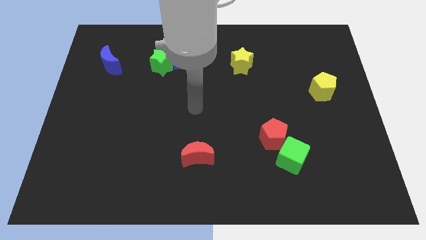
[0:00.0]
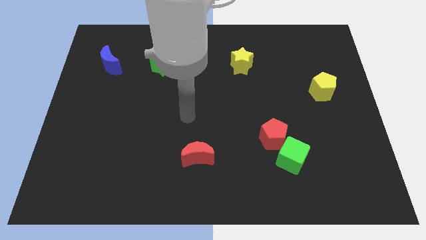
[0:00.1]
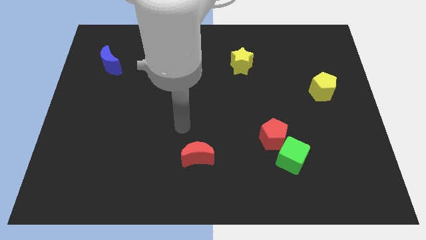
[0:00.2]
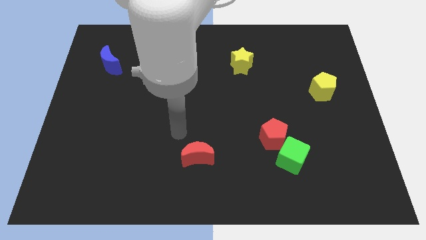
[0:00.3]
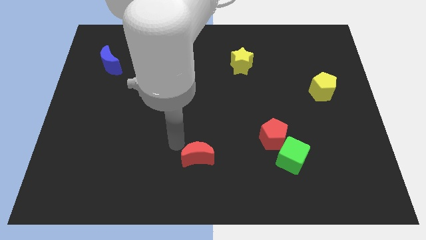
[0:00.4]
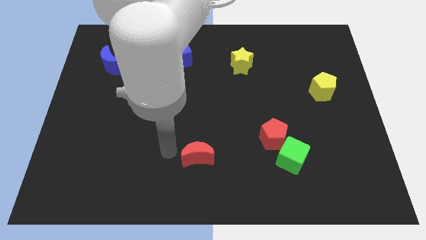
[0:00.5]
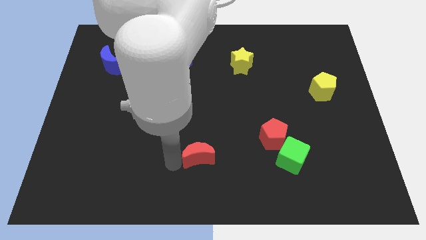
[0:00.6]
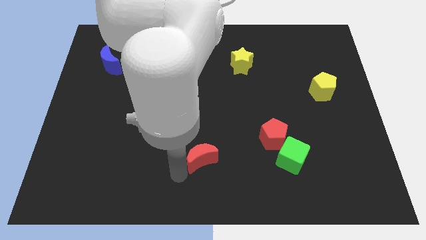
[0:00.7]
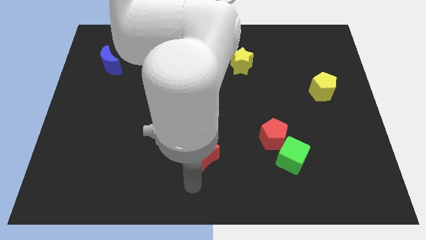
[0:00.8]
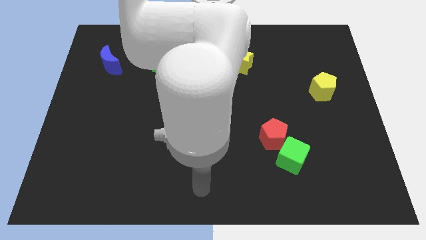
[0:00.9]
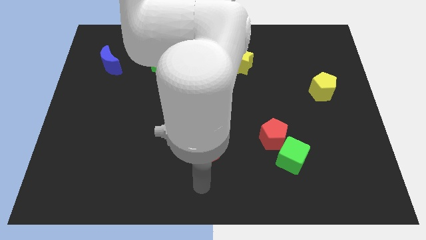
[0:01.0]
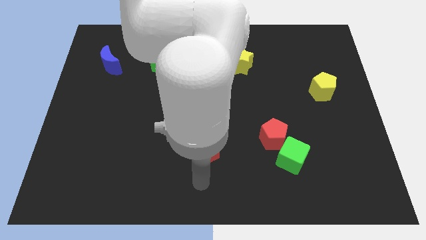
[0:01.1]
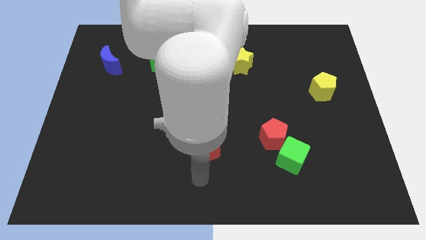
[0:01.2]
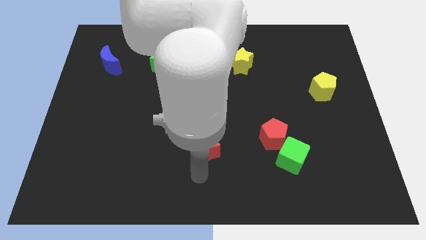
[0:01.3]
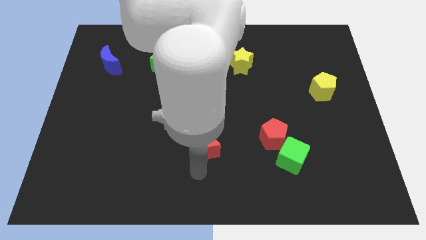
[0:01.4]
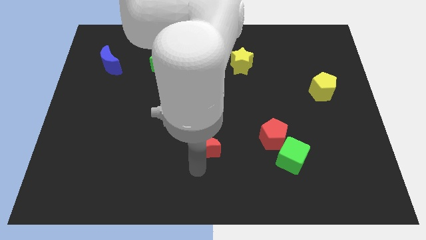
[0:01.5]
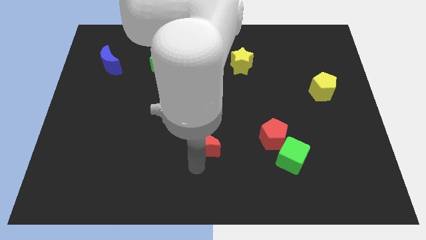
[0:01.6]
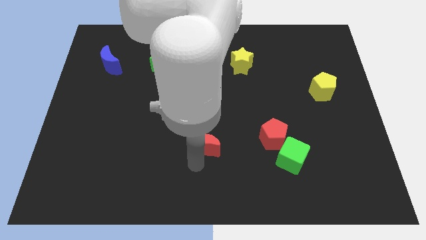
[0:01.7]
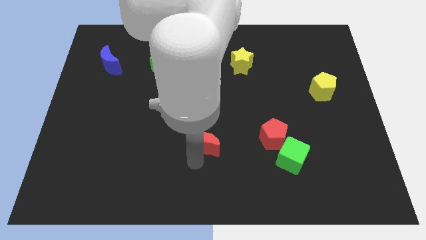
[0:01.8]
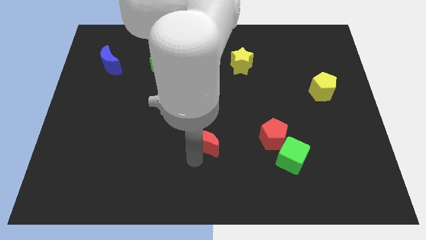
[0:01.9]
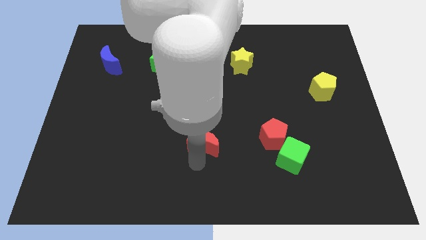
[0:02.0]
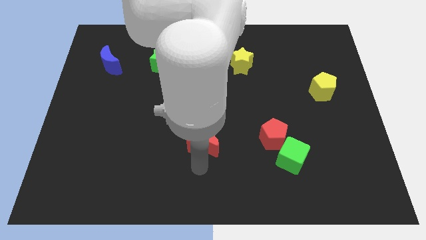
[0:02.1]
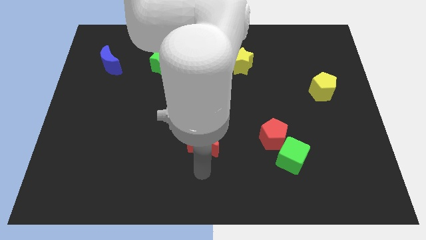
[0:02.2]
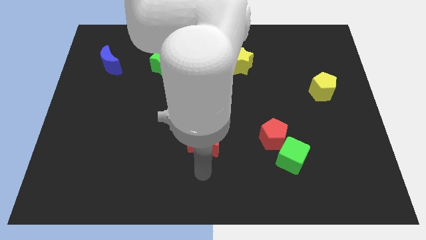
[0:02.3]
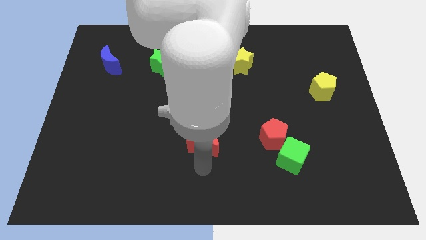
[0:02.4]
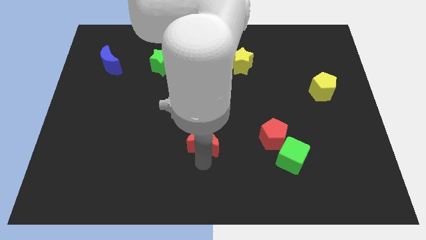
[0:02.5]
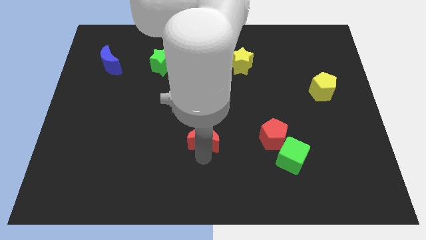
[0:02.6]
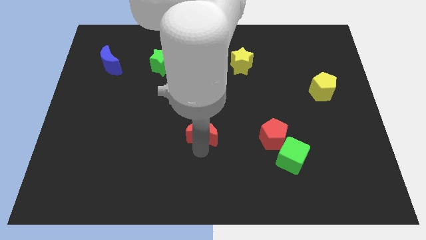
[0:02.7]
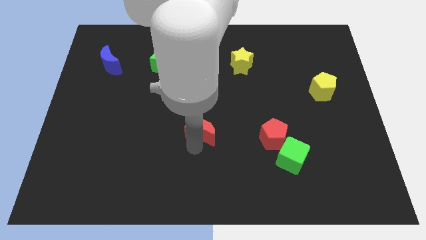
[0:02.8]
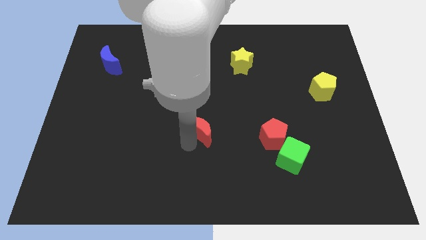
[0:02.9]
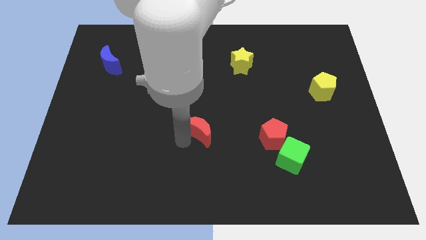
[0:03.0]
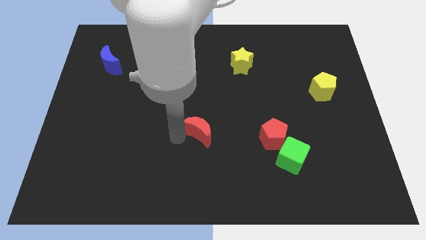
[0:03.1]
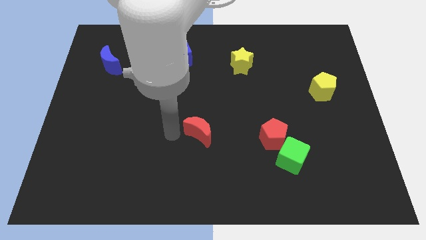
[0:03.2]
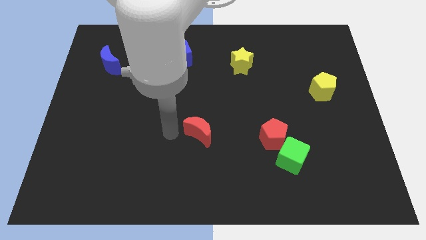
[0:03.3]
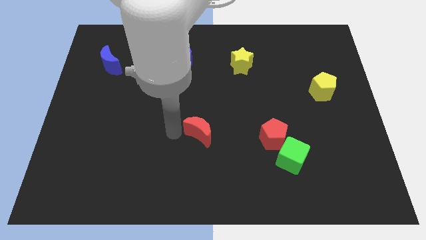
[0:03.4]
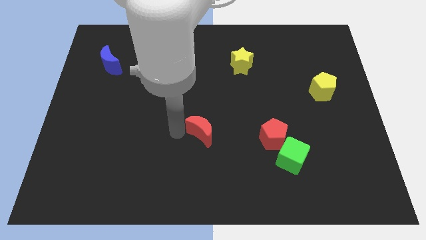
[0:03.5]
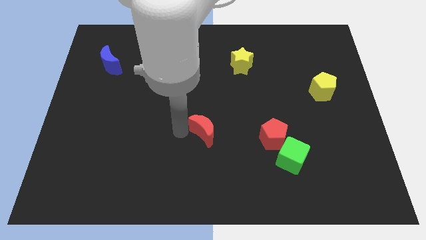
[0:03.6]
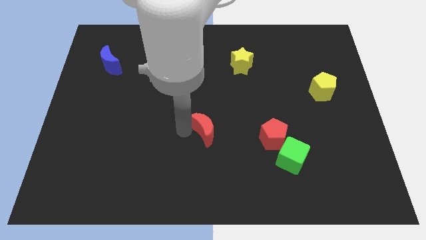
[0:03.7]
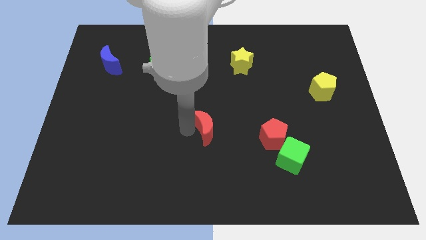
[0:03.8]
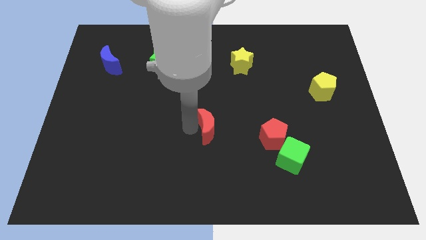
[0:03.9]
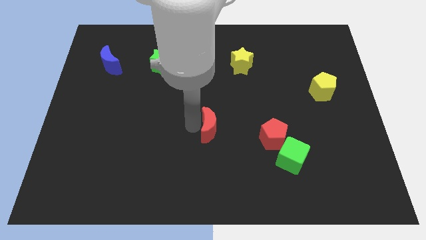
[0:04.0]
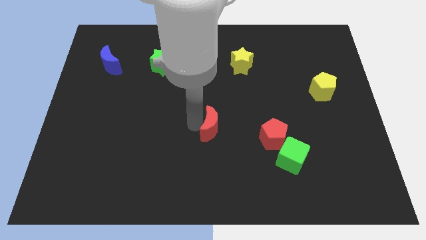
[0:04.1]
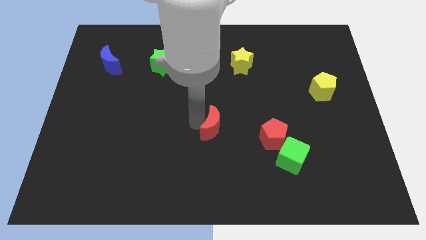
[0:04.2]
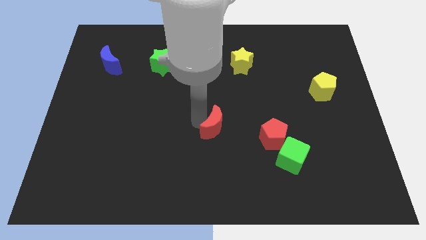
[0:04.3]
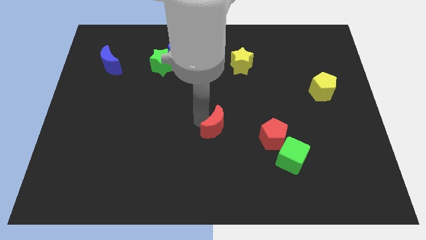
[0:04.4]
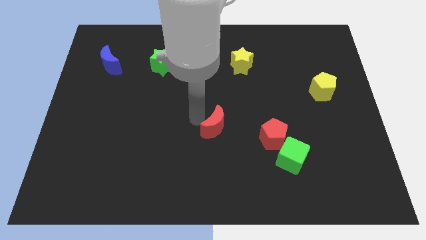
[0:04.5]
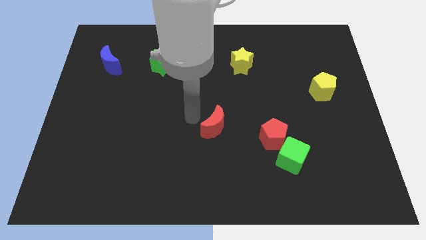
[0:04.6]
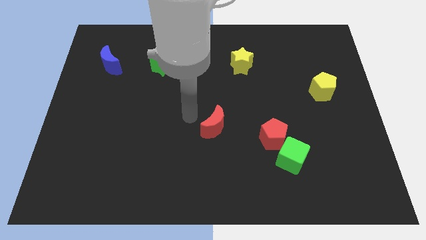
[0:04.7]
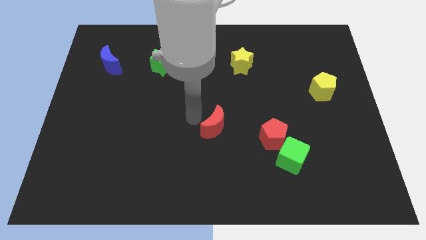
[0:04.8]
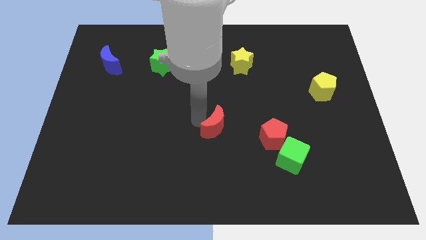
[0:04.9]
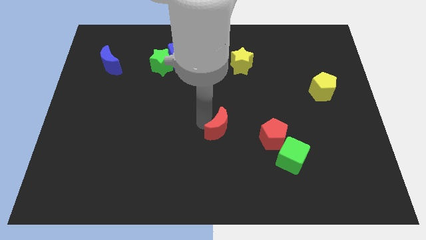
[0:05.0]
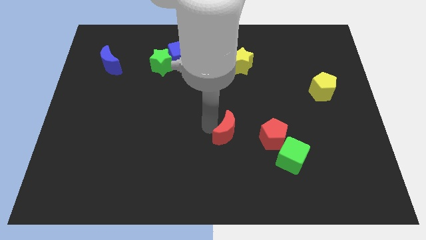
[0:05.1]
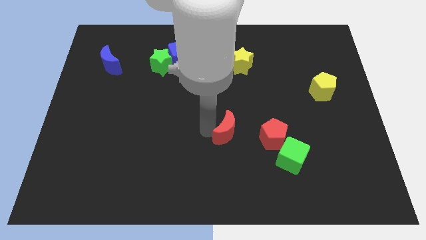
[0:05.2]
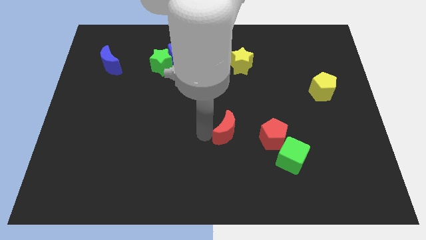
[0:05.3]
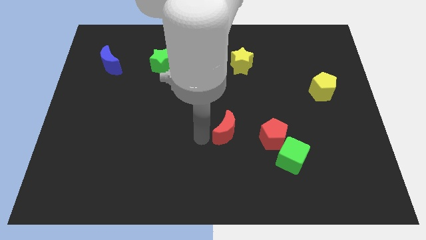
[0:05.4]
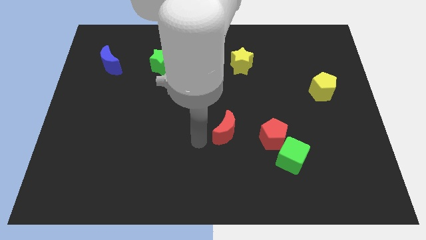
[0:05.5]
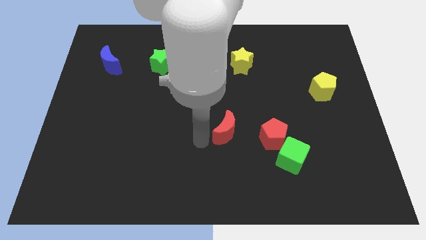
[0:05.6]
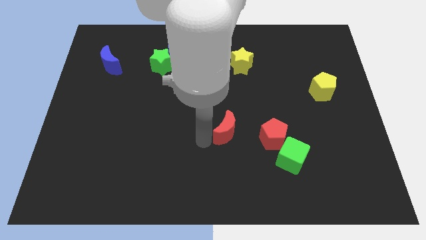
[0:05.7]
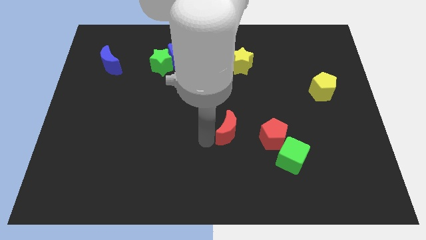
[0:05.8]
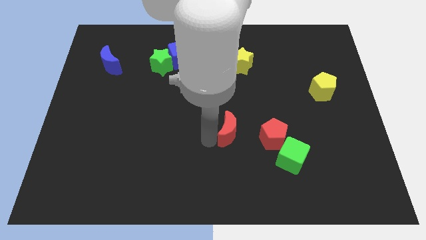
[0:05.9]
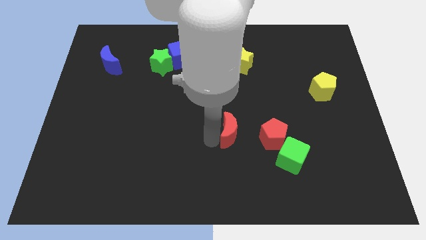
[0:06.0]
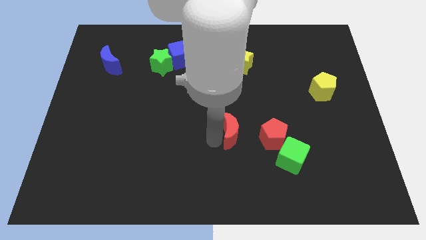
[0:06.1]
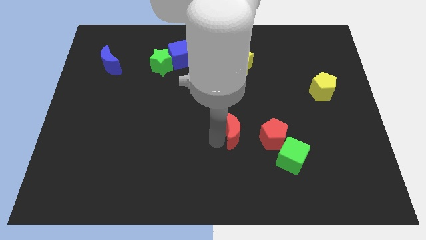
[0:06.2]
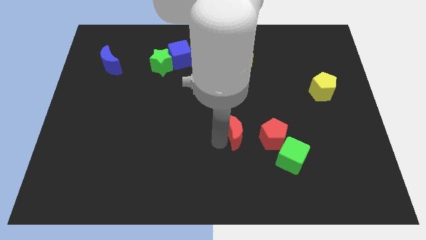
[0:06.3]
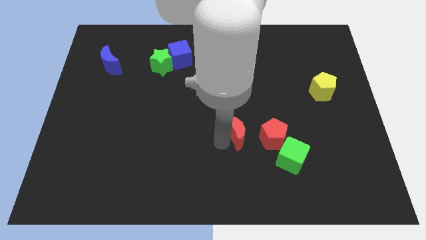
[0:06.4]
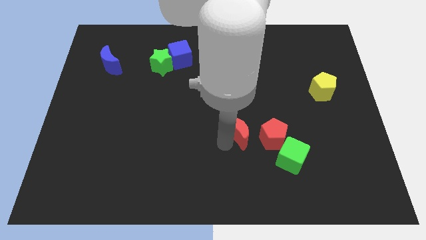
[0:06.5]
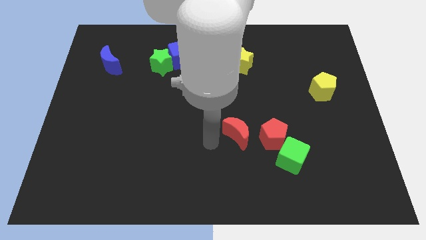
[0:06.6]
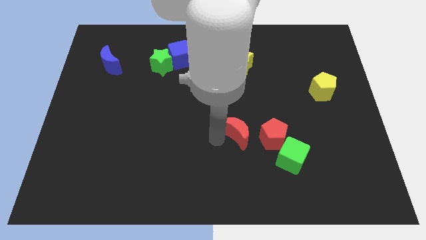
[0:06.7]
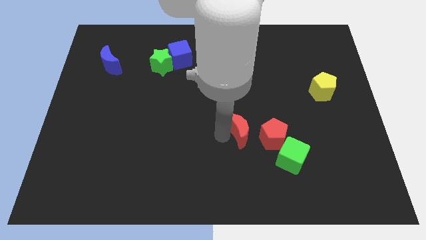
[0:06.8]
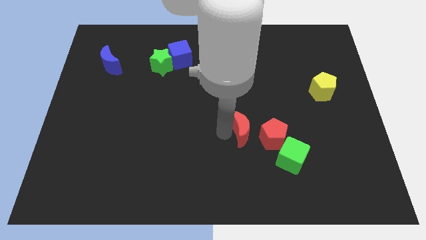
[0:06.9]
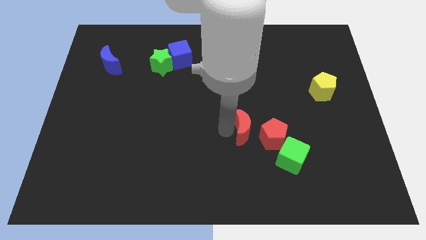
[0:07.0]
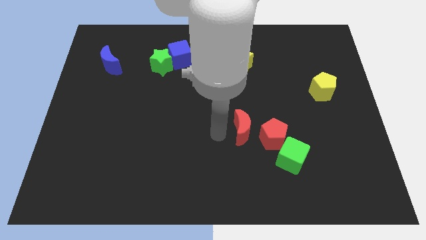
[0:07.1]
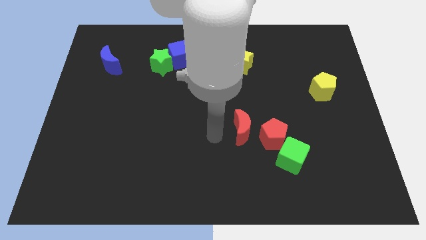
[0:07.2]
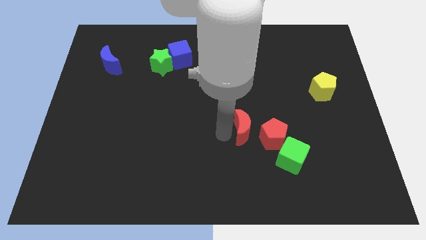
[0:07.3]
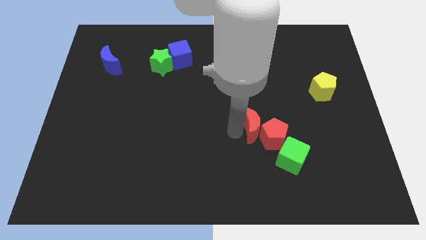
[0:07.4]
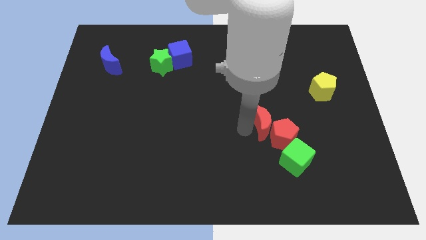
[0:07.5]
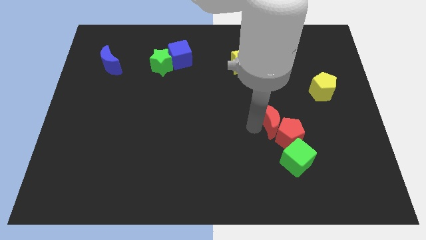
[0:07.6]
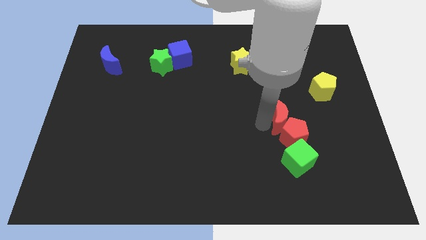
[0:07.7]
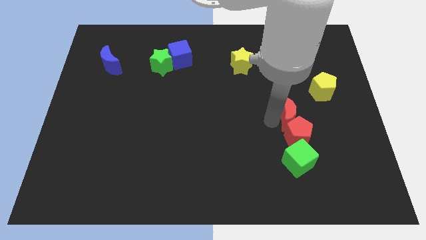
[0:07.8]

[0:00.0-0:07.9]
move the red moon diagonally up and to the right of the red pentagon
